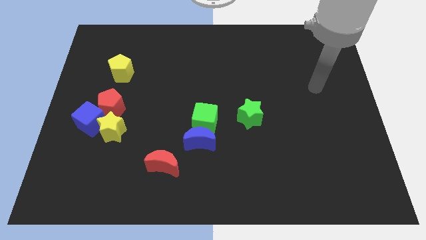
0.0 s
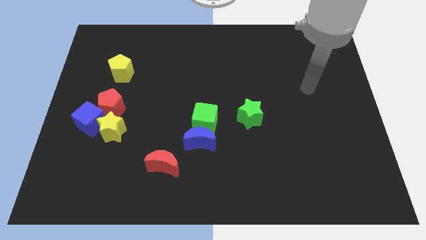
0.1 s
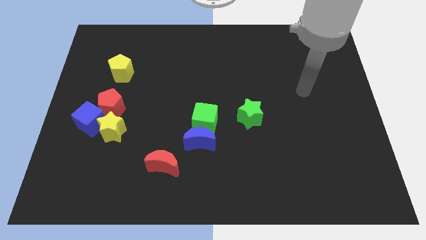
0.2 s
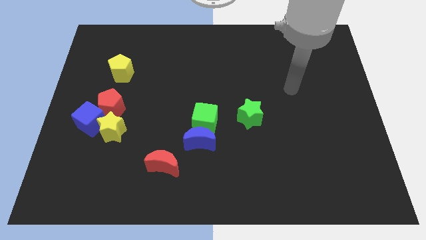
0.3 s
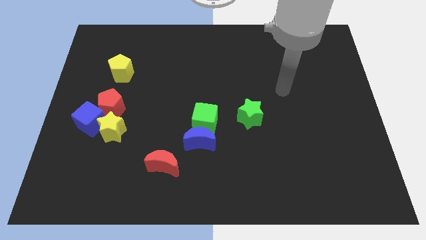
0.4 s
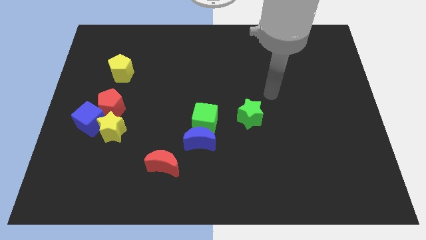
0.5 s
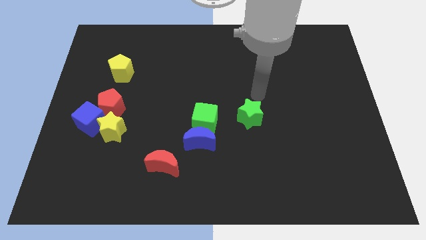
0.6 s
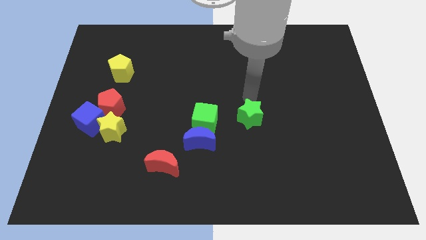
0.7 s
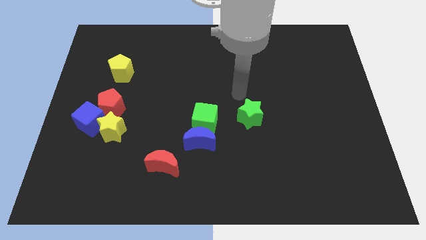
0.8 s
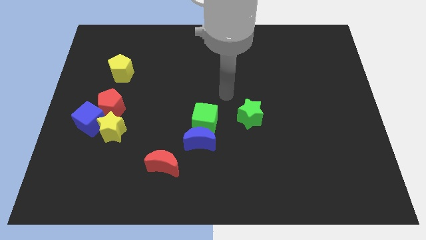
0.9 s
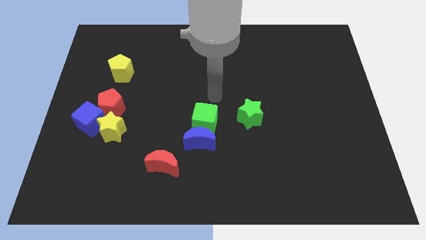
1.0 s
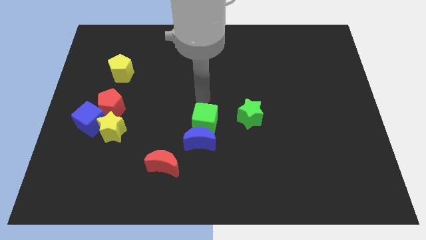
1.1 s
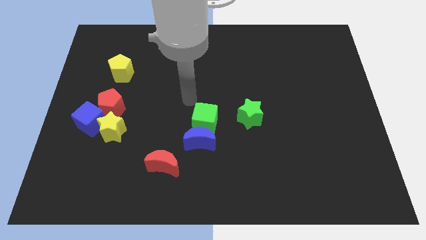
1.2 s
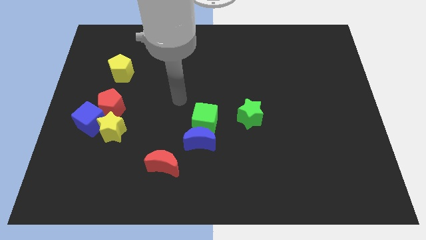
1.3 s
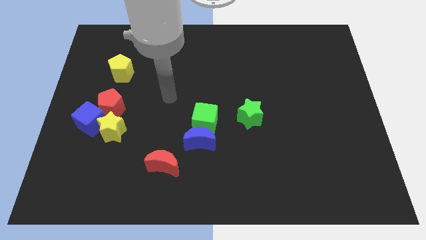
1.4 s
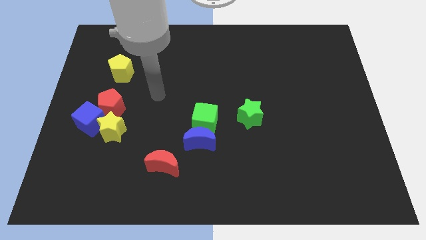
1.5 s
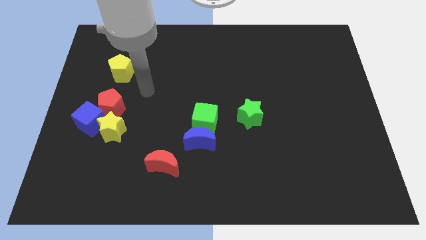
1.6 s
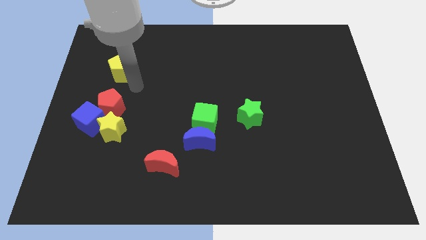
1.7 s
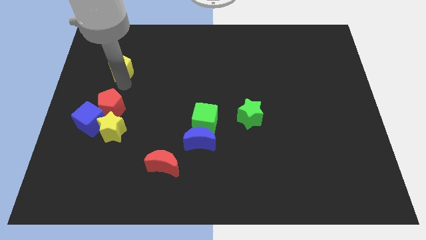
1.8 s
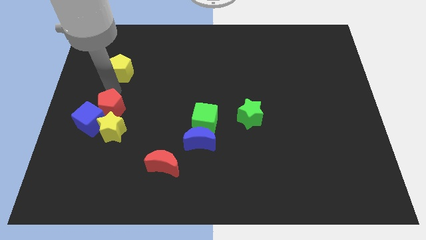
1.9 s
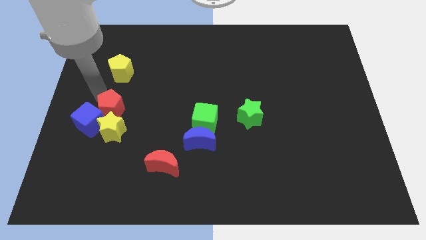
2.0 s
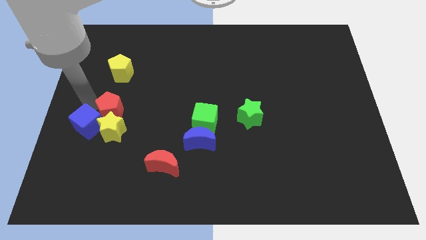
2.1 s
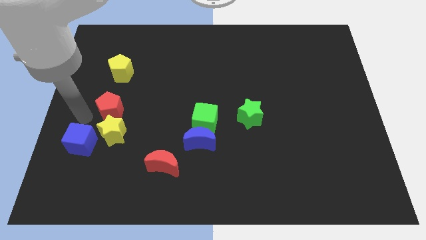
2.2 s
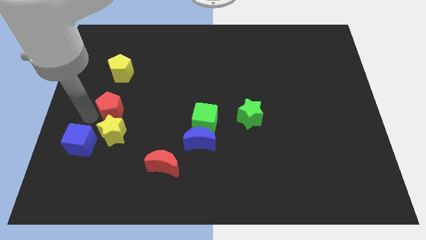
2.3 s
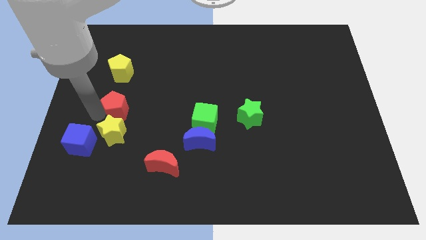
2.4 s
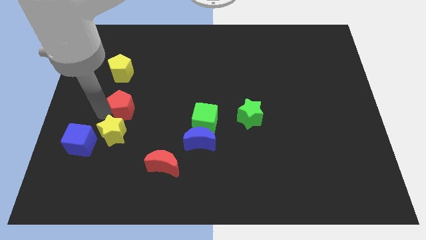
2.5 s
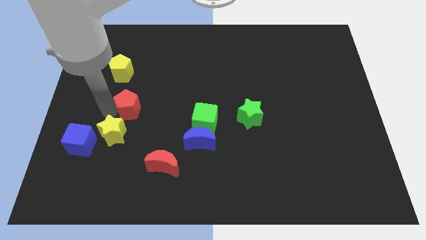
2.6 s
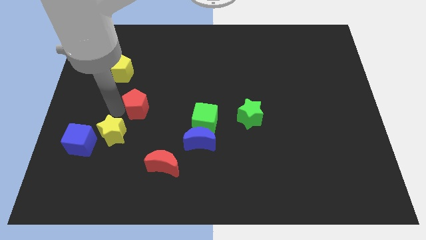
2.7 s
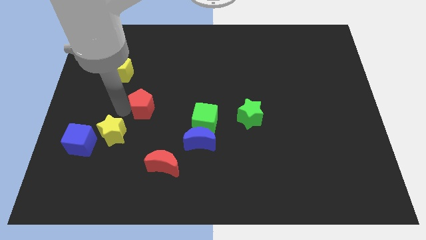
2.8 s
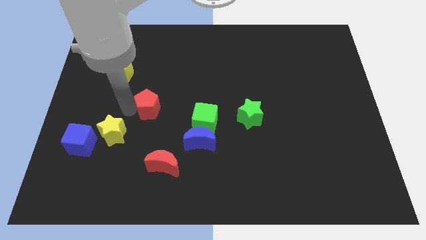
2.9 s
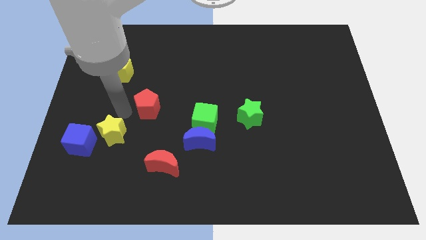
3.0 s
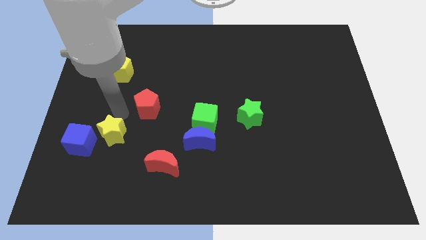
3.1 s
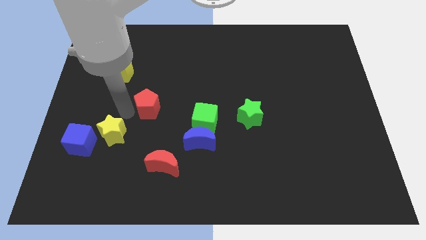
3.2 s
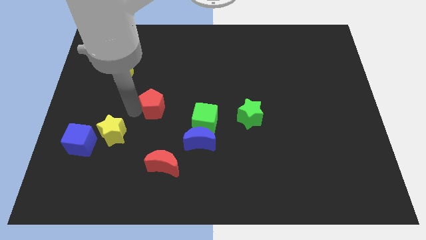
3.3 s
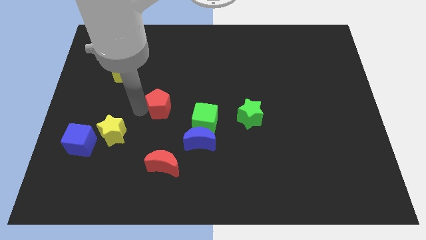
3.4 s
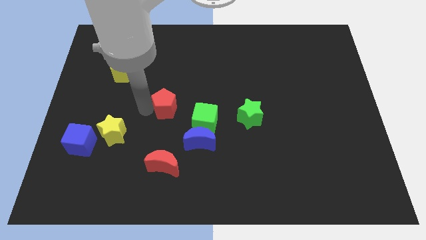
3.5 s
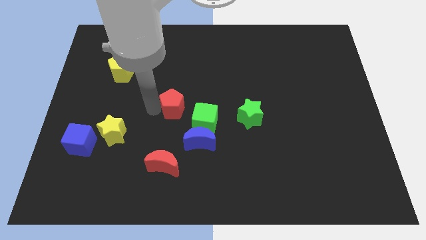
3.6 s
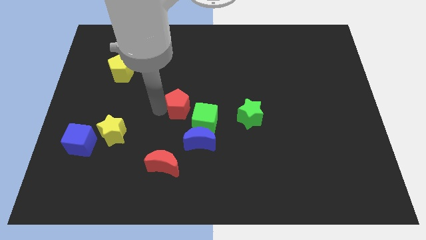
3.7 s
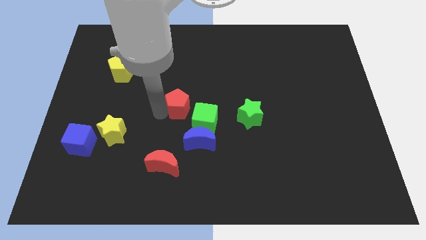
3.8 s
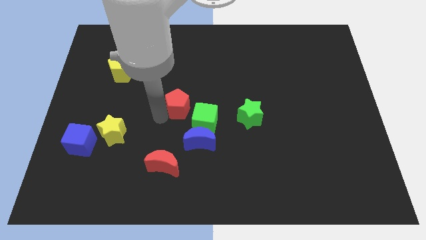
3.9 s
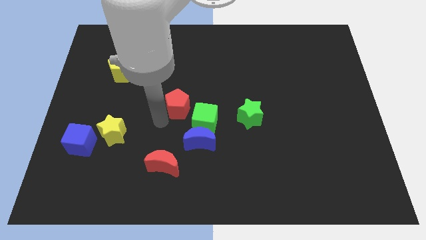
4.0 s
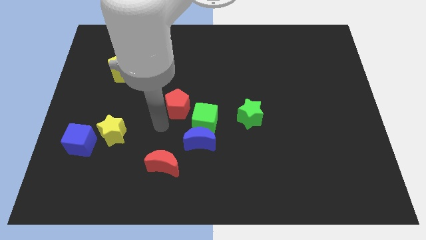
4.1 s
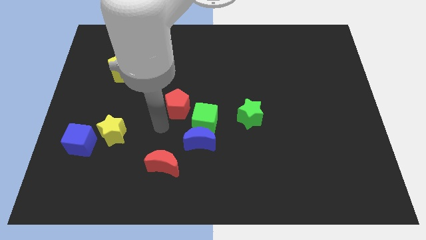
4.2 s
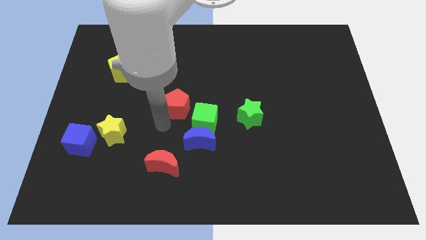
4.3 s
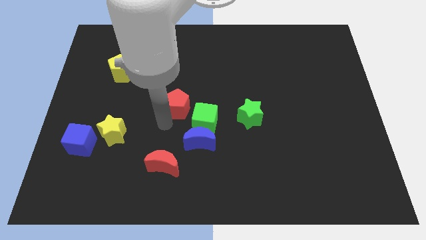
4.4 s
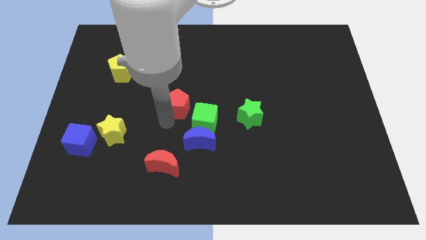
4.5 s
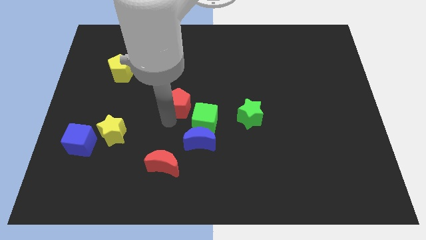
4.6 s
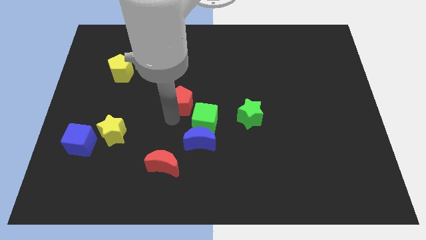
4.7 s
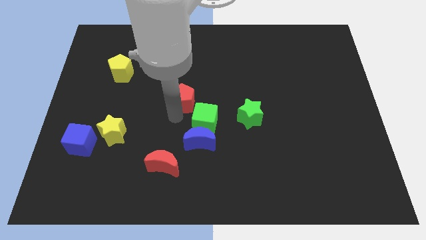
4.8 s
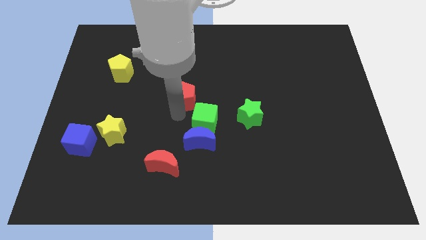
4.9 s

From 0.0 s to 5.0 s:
put the red pentagon above the green cube

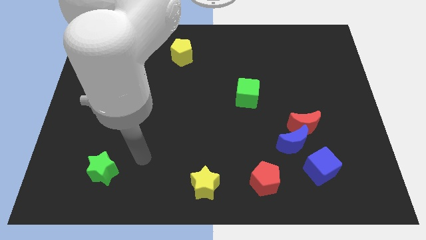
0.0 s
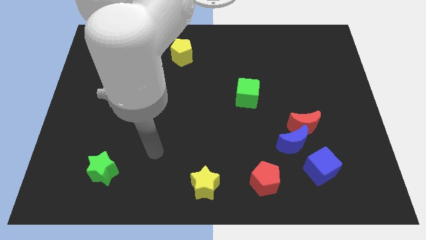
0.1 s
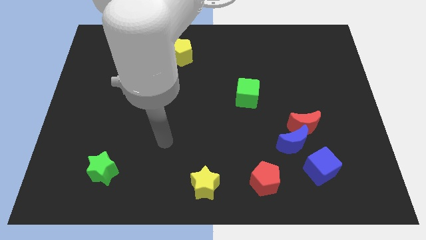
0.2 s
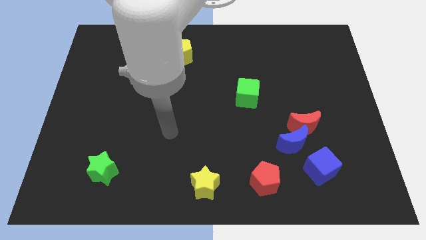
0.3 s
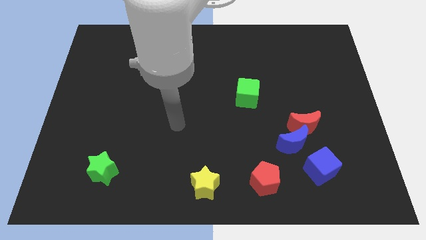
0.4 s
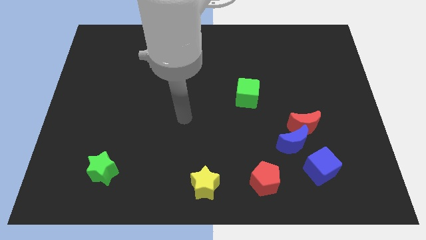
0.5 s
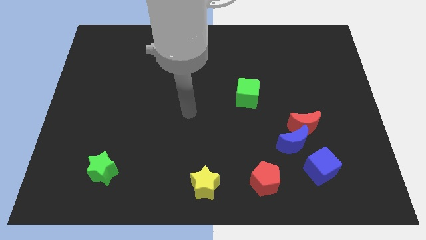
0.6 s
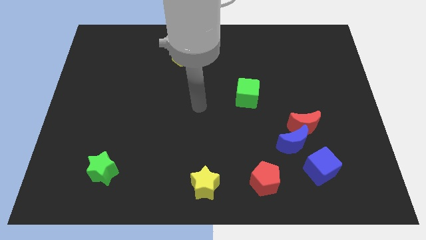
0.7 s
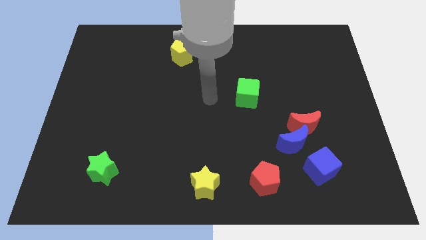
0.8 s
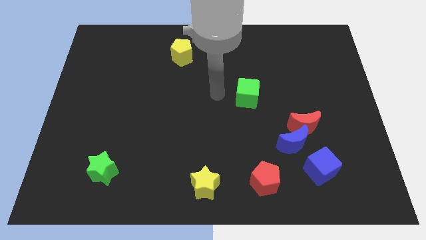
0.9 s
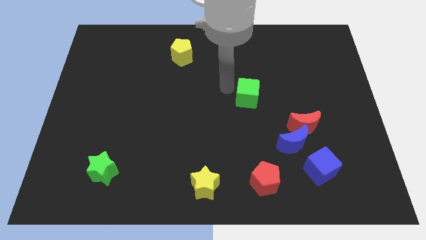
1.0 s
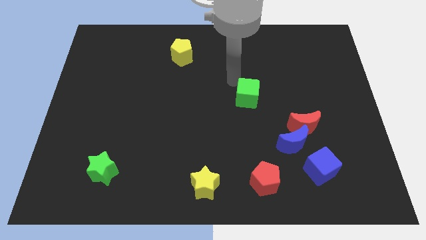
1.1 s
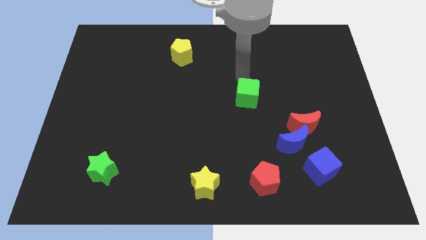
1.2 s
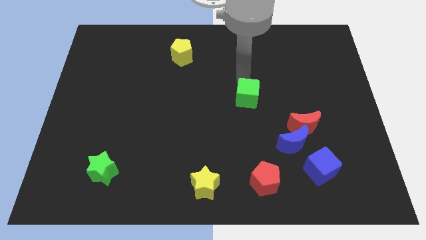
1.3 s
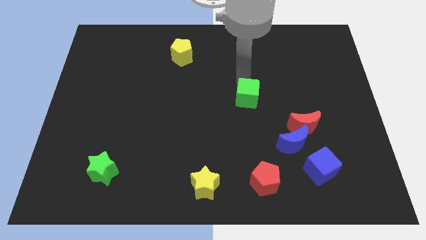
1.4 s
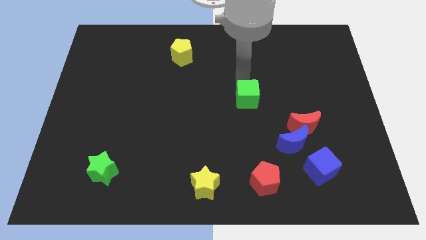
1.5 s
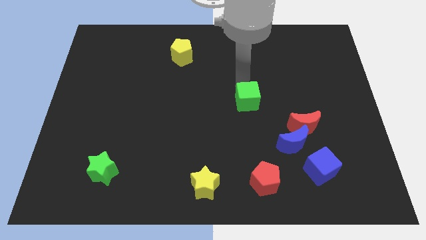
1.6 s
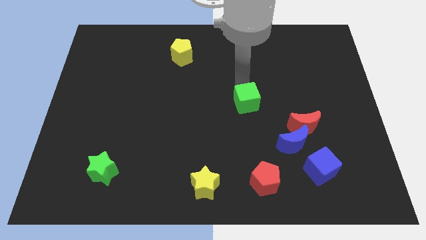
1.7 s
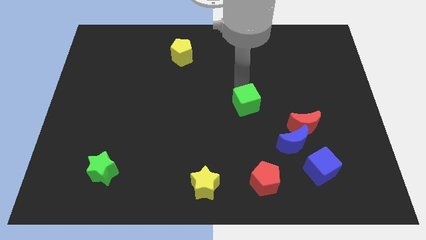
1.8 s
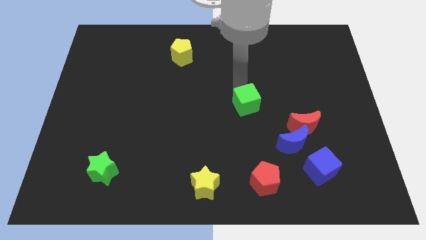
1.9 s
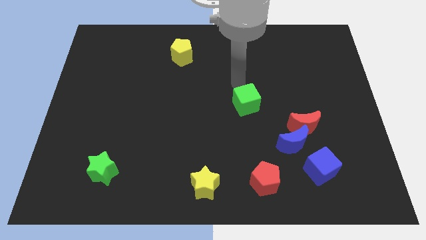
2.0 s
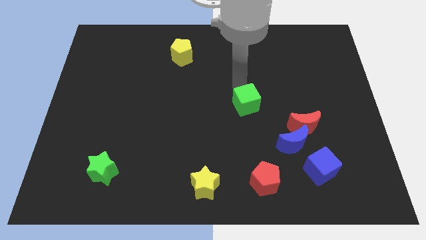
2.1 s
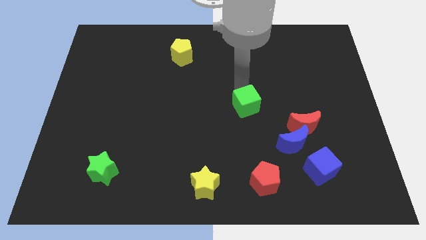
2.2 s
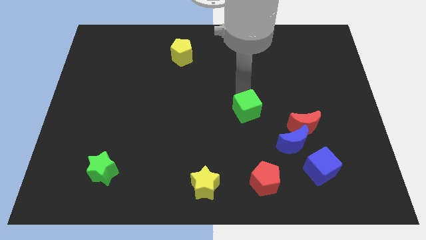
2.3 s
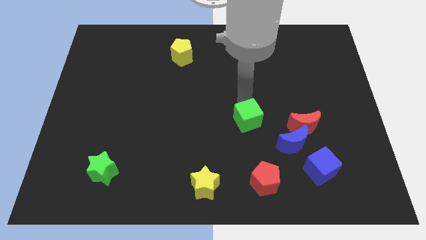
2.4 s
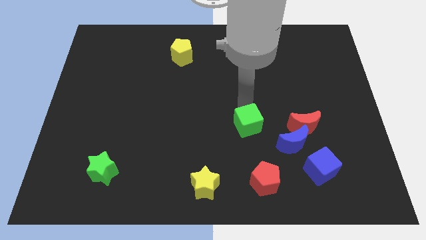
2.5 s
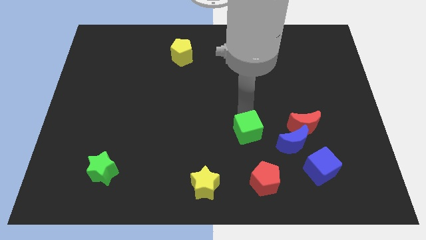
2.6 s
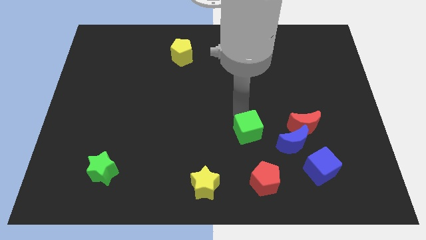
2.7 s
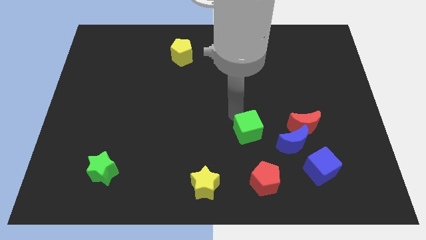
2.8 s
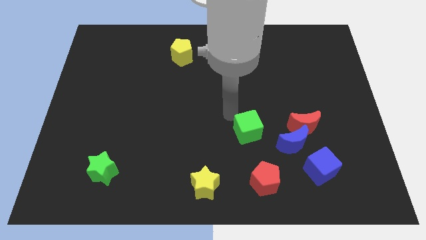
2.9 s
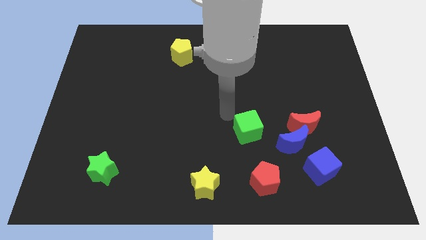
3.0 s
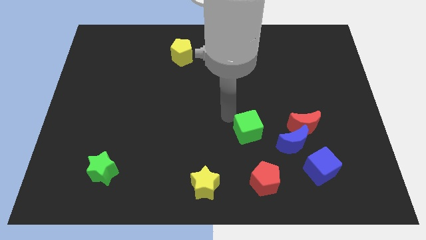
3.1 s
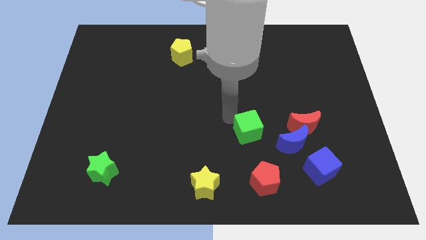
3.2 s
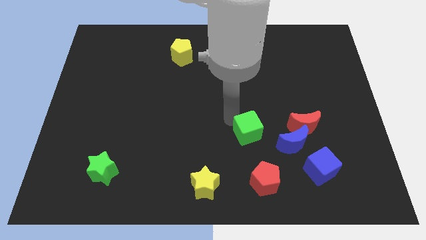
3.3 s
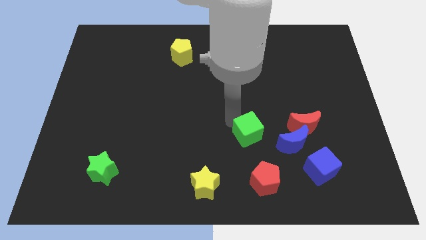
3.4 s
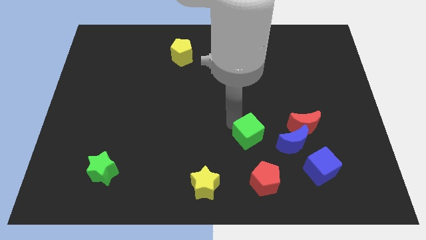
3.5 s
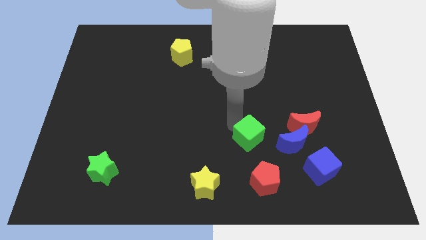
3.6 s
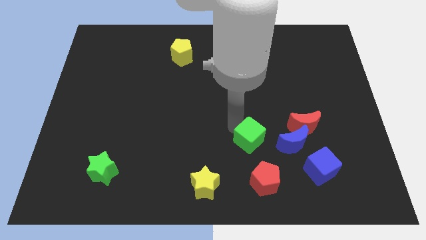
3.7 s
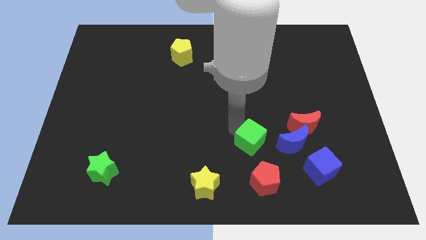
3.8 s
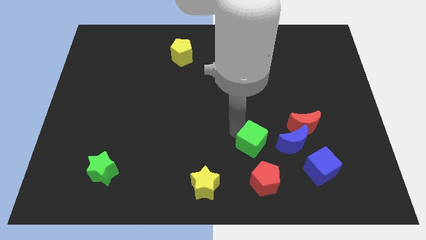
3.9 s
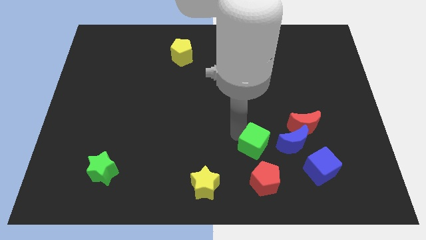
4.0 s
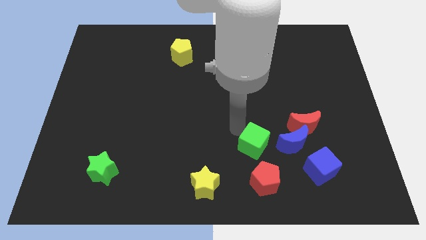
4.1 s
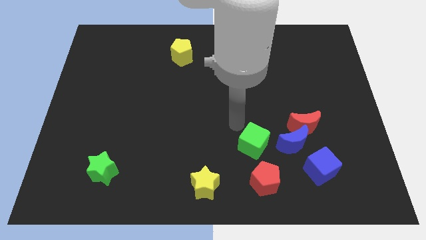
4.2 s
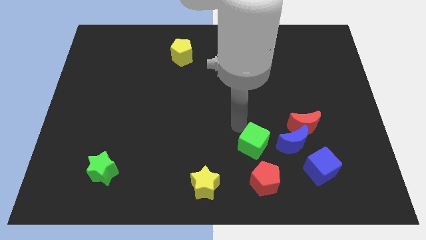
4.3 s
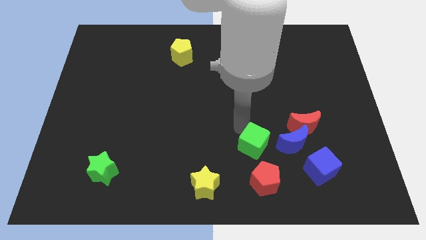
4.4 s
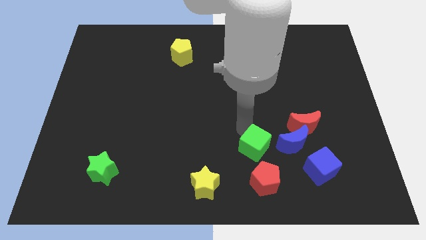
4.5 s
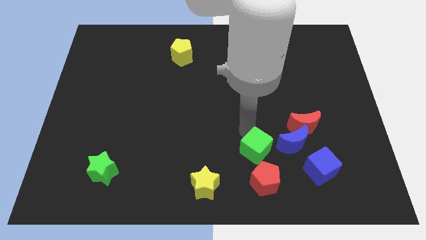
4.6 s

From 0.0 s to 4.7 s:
put the green cube to the bottom left side of the blue moon
